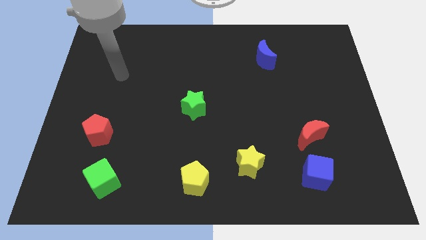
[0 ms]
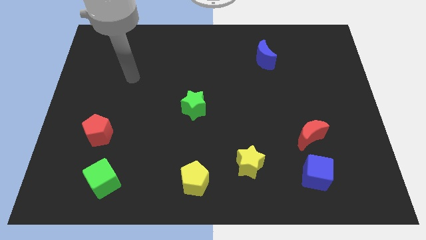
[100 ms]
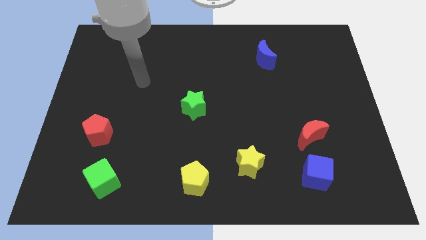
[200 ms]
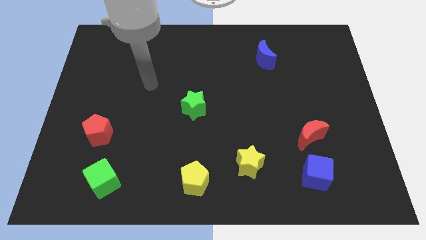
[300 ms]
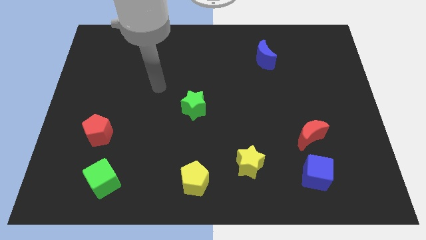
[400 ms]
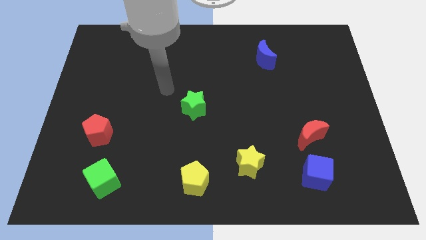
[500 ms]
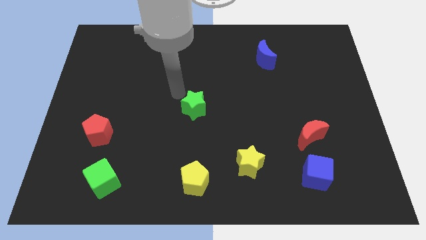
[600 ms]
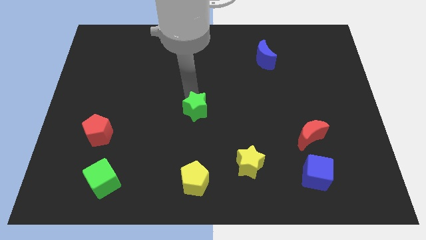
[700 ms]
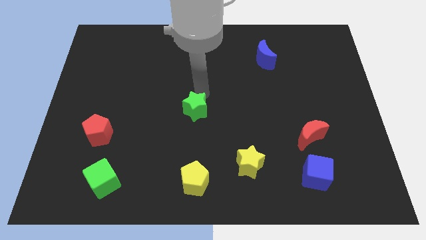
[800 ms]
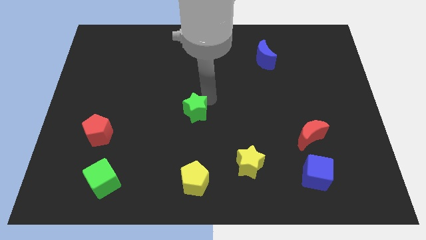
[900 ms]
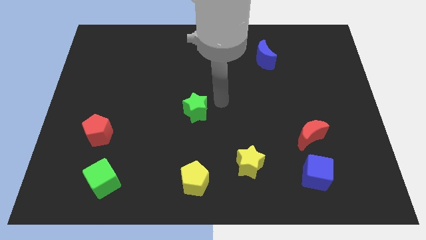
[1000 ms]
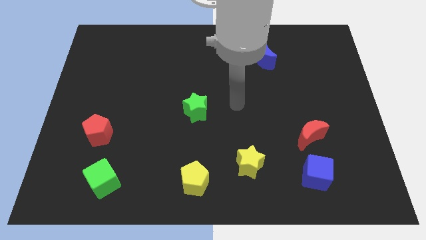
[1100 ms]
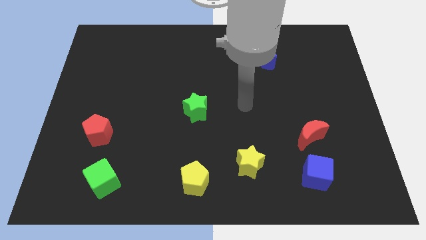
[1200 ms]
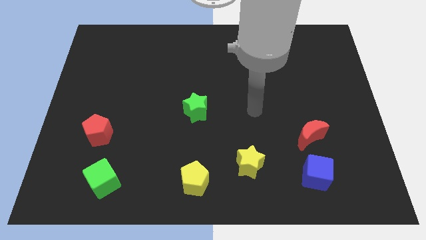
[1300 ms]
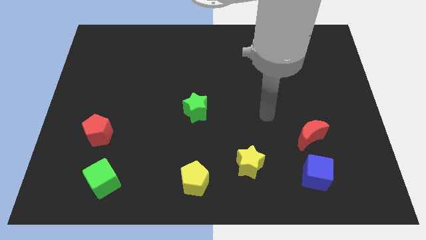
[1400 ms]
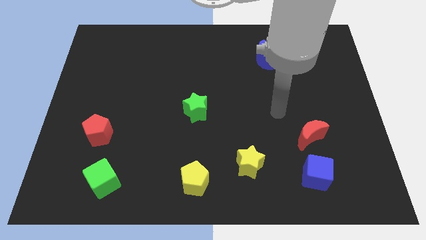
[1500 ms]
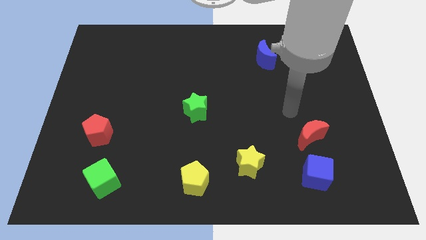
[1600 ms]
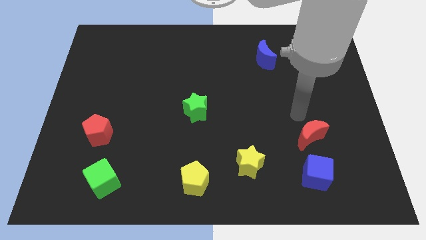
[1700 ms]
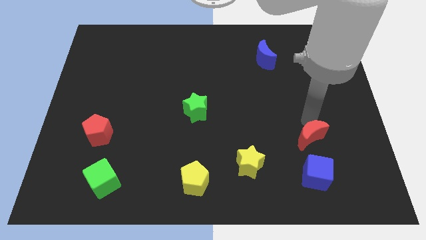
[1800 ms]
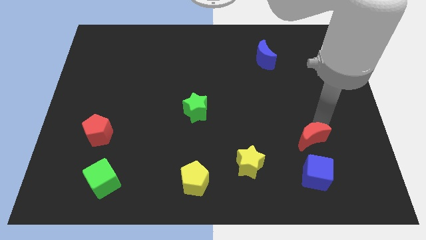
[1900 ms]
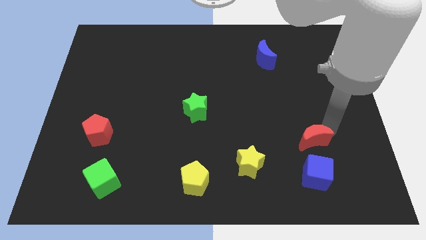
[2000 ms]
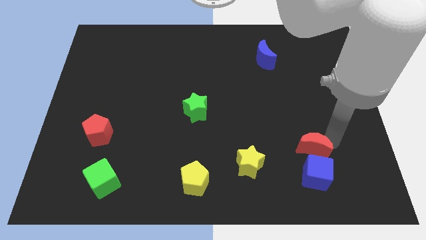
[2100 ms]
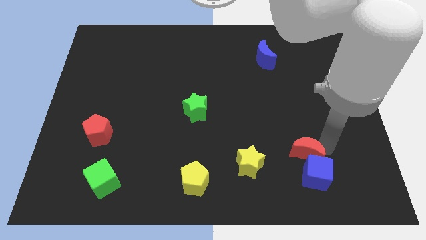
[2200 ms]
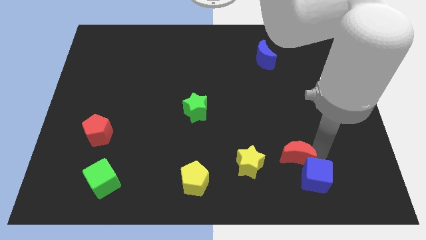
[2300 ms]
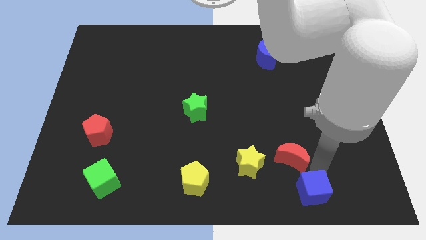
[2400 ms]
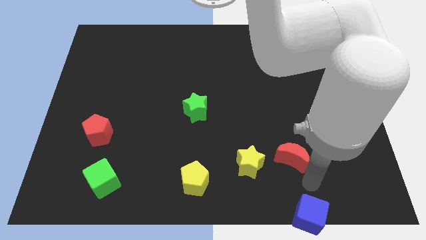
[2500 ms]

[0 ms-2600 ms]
move the red moon away from the blue cube

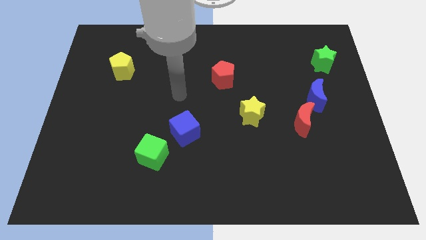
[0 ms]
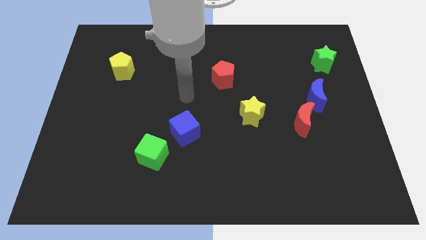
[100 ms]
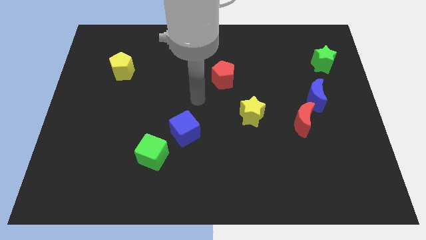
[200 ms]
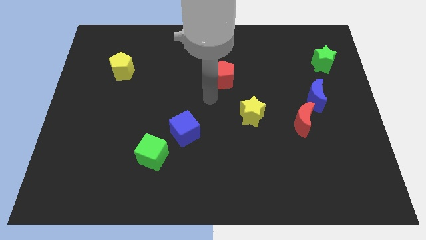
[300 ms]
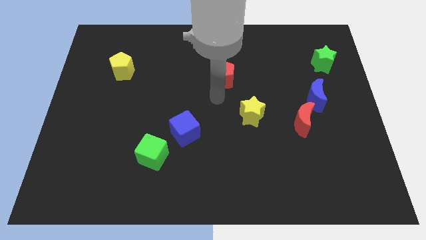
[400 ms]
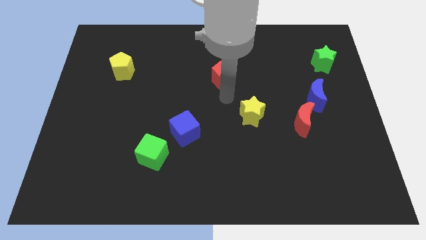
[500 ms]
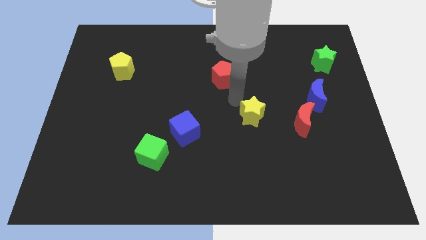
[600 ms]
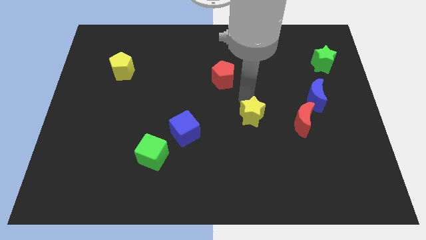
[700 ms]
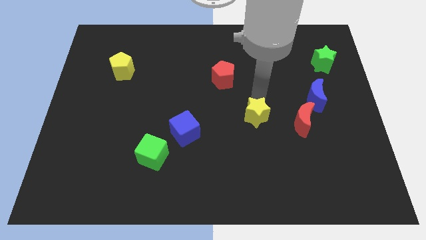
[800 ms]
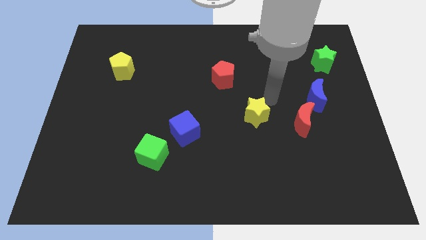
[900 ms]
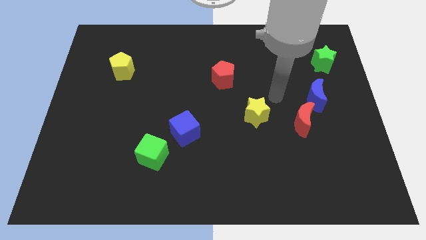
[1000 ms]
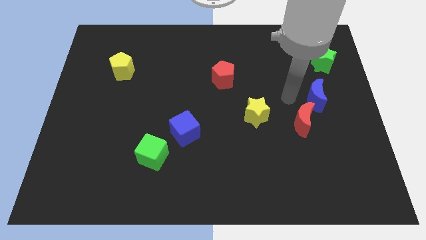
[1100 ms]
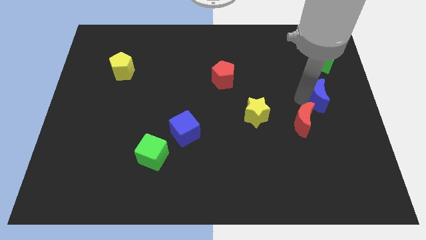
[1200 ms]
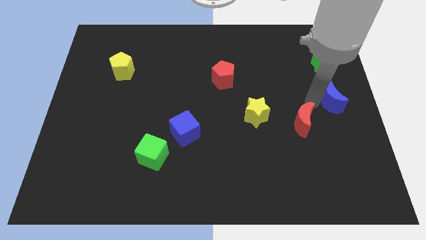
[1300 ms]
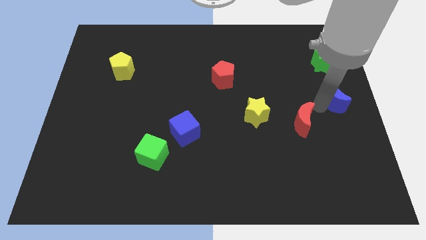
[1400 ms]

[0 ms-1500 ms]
separate the red moon from the blue moon

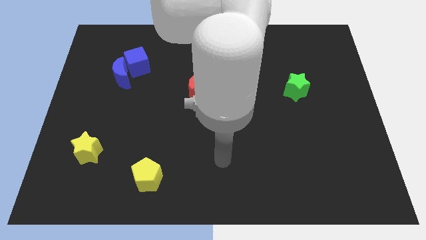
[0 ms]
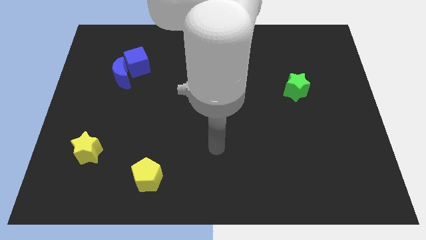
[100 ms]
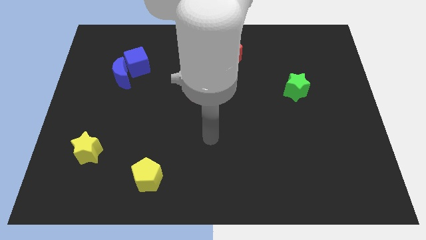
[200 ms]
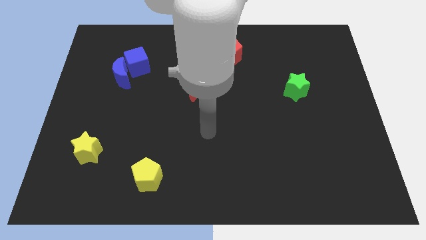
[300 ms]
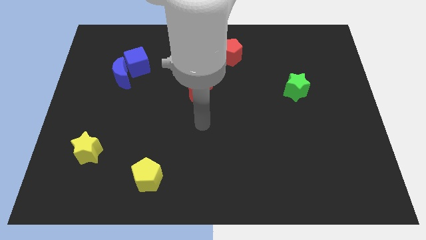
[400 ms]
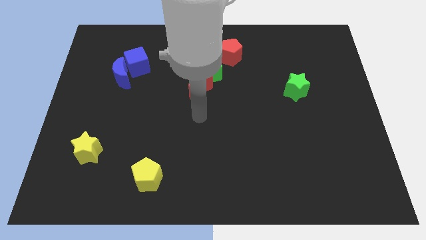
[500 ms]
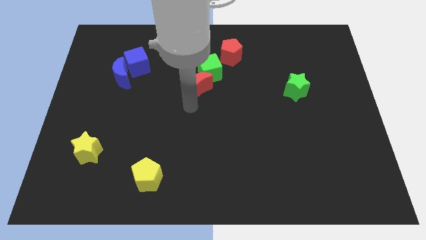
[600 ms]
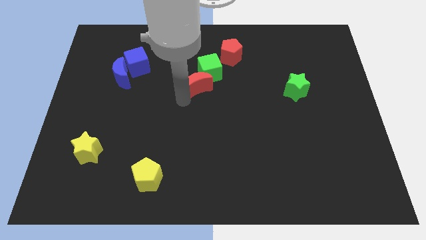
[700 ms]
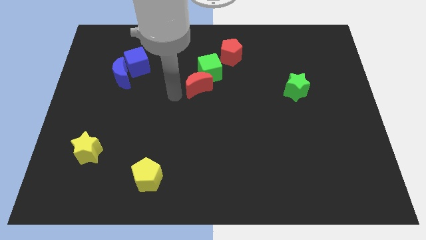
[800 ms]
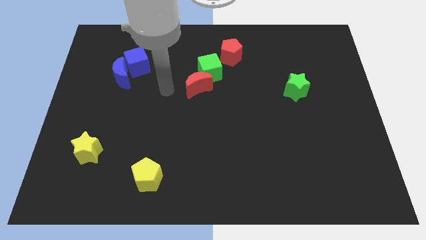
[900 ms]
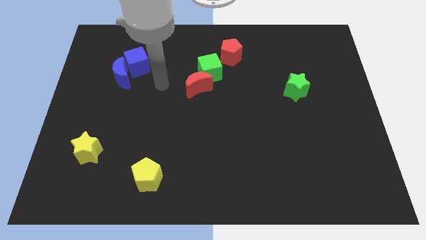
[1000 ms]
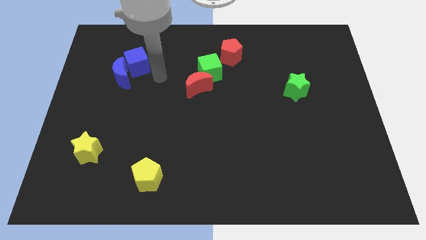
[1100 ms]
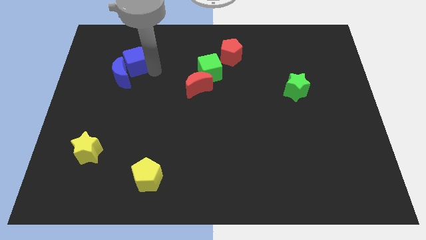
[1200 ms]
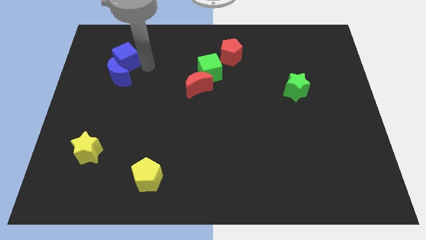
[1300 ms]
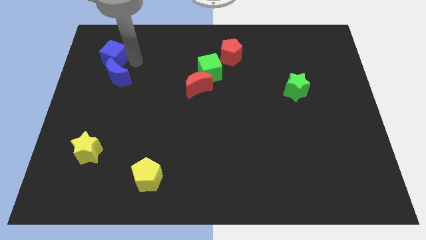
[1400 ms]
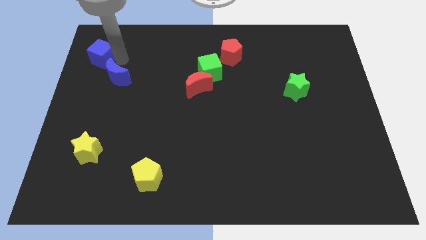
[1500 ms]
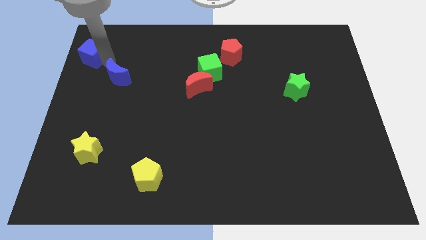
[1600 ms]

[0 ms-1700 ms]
separate the blue moon from the blue cube

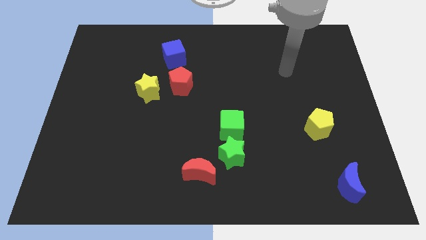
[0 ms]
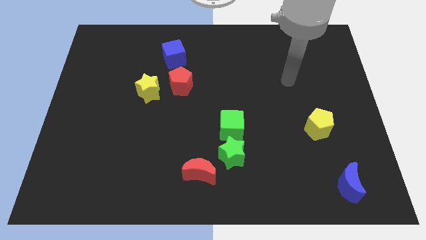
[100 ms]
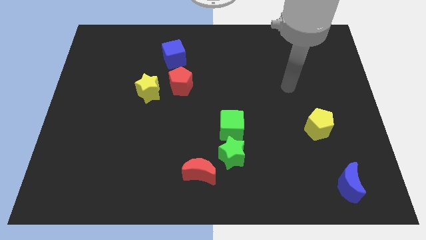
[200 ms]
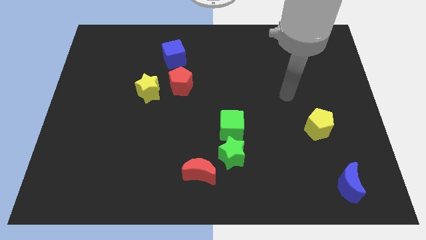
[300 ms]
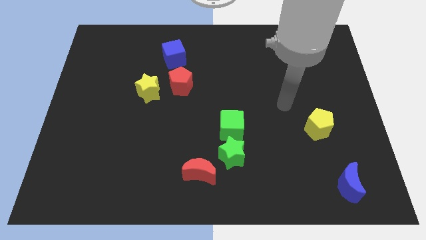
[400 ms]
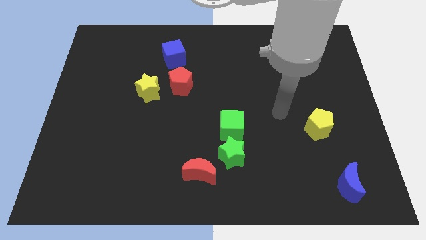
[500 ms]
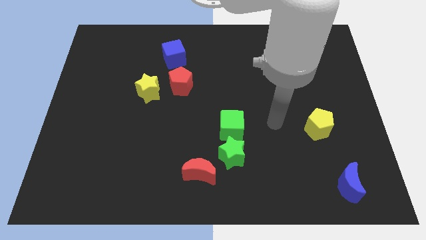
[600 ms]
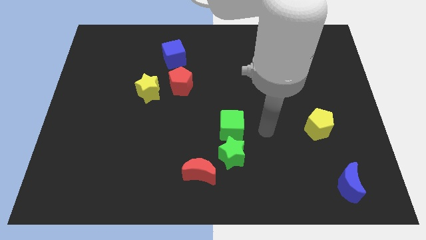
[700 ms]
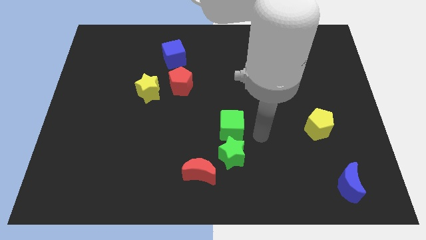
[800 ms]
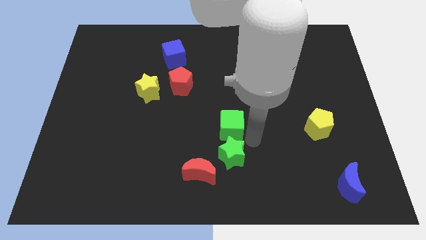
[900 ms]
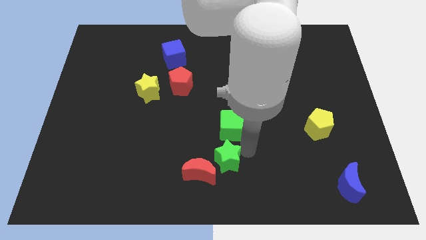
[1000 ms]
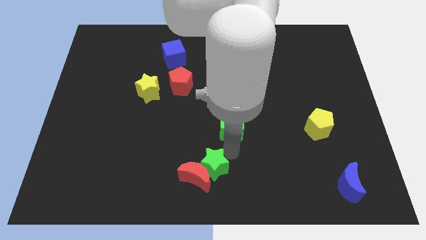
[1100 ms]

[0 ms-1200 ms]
separate the green cube from the green star

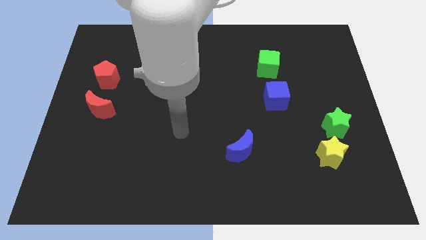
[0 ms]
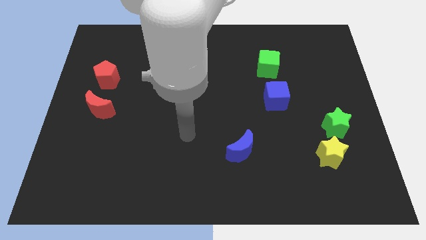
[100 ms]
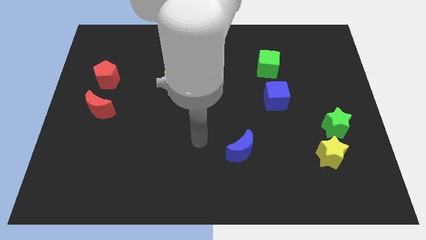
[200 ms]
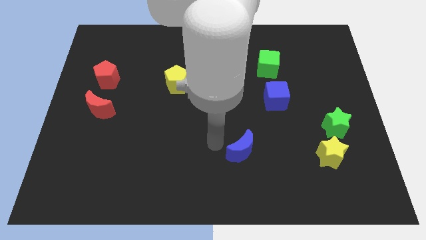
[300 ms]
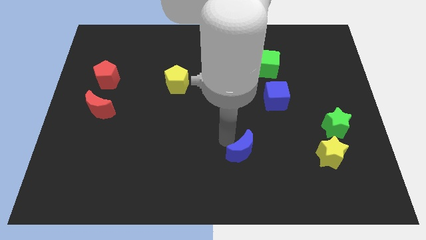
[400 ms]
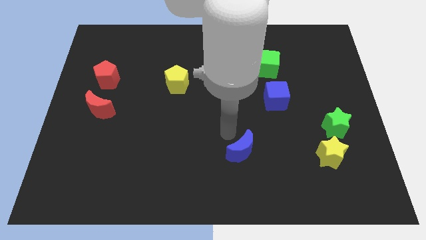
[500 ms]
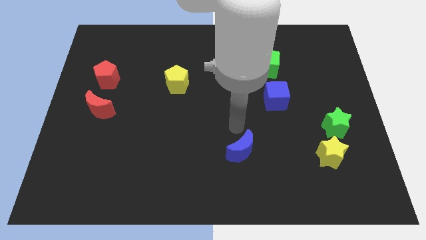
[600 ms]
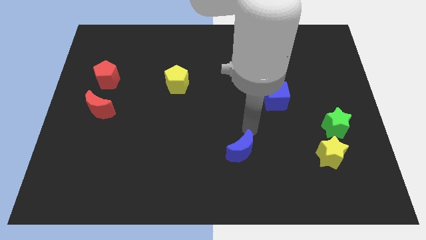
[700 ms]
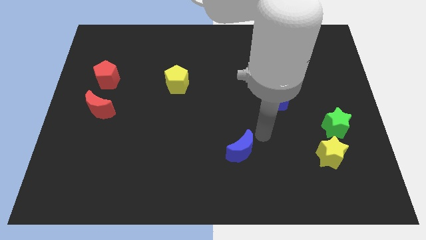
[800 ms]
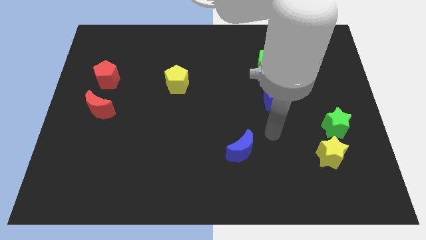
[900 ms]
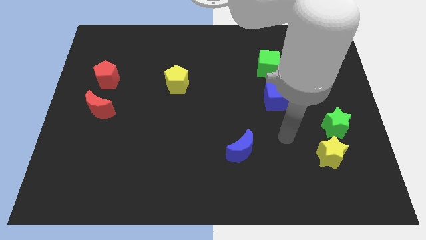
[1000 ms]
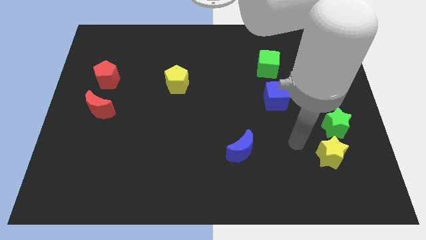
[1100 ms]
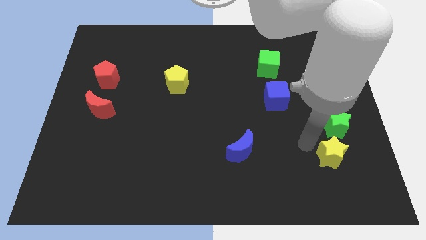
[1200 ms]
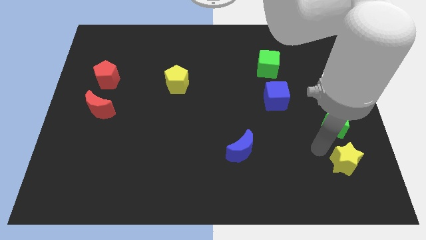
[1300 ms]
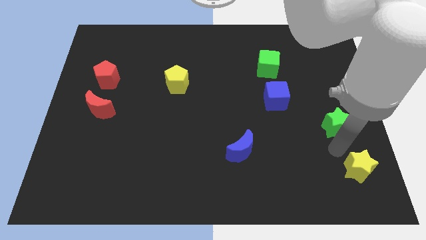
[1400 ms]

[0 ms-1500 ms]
separate the green star from the yellow star

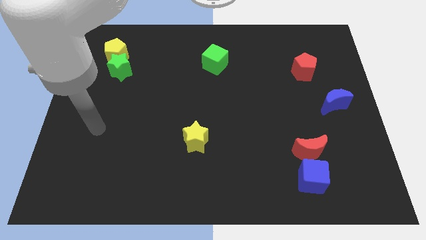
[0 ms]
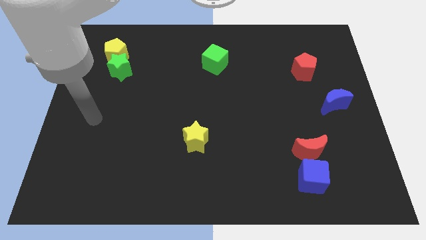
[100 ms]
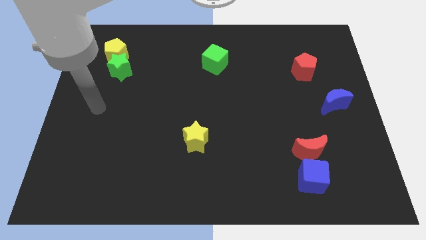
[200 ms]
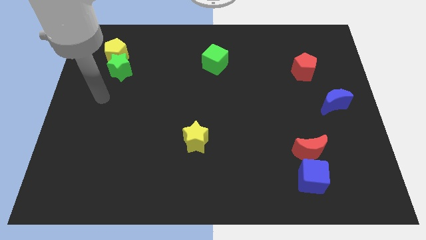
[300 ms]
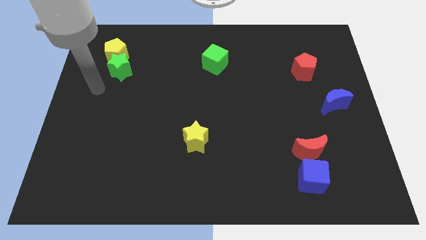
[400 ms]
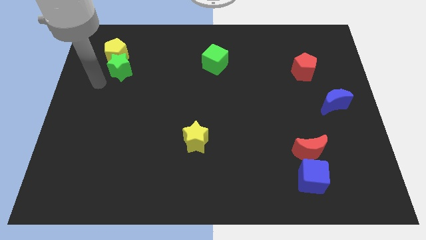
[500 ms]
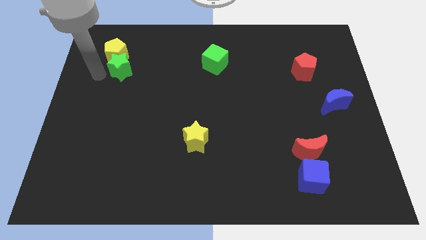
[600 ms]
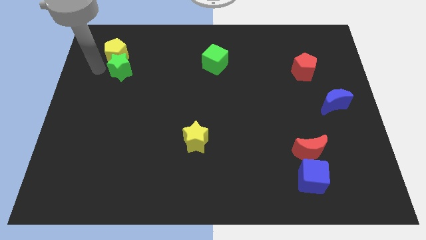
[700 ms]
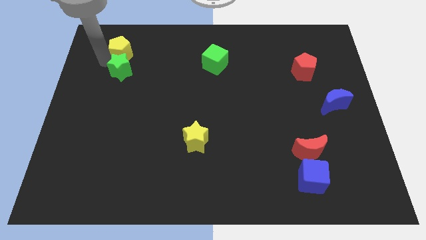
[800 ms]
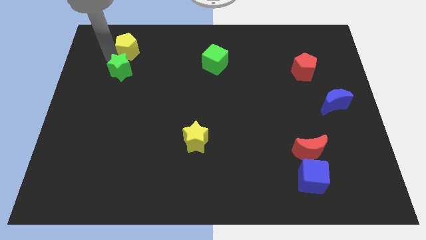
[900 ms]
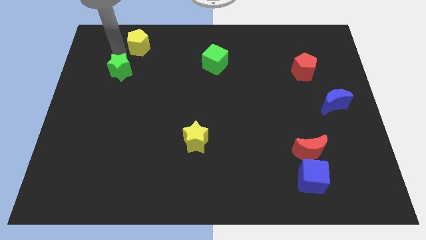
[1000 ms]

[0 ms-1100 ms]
separate the green star from the yellow pentagon
